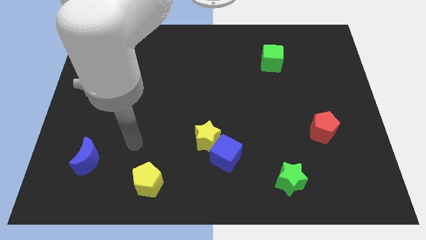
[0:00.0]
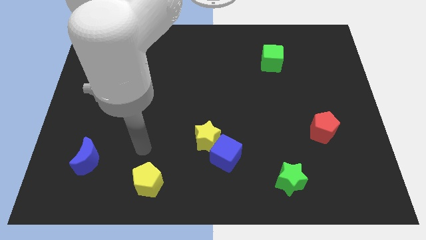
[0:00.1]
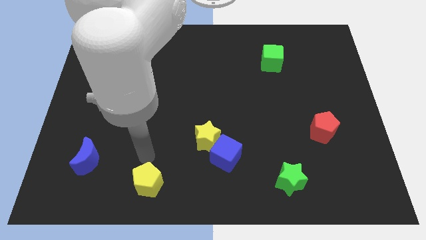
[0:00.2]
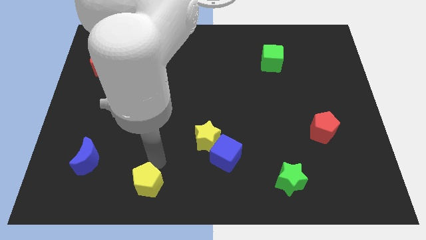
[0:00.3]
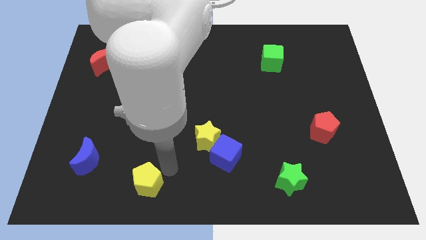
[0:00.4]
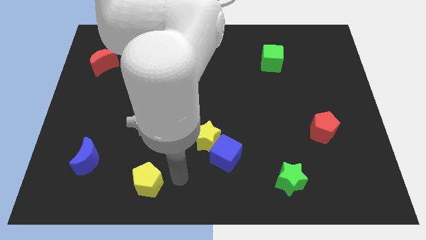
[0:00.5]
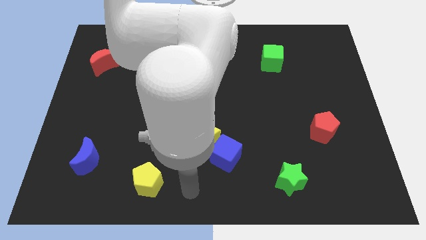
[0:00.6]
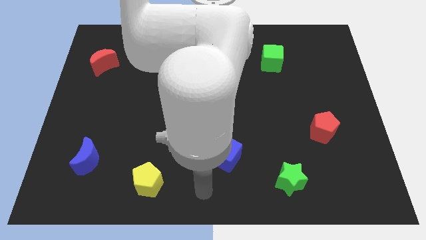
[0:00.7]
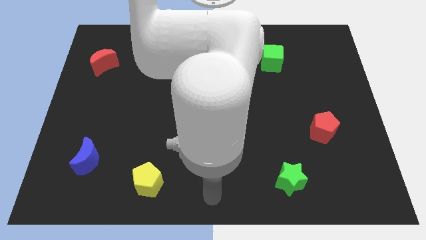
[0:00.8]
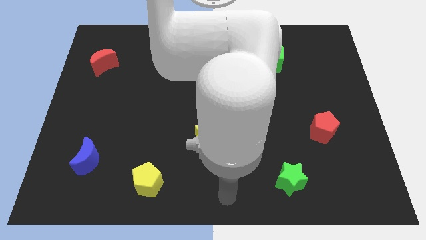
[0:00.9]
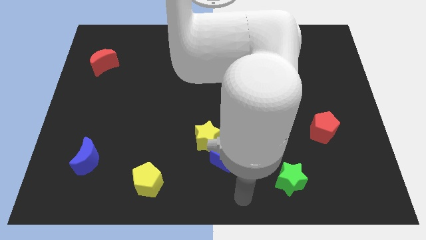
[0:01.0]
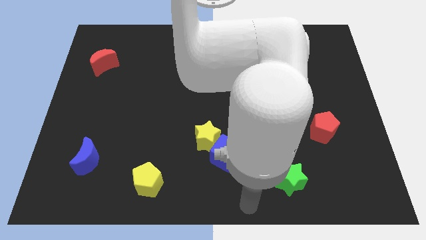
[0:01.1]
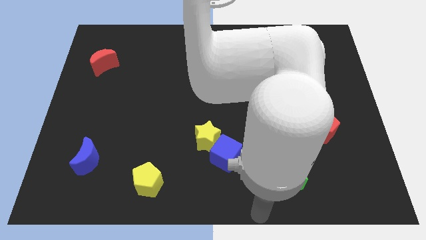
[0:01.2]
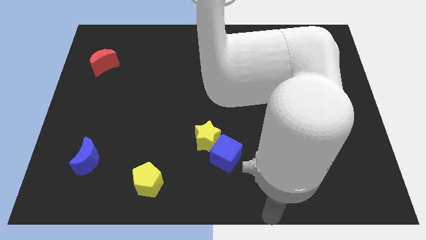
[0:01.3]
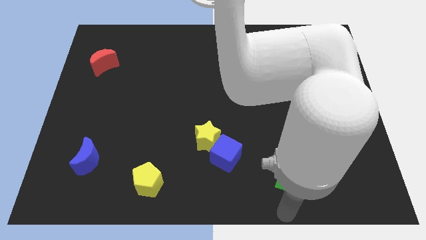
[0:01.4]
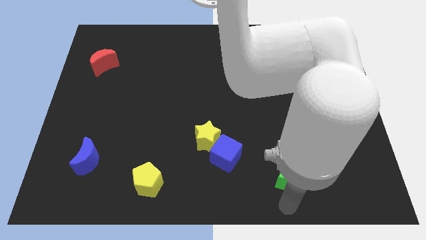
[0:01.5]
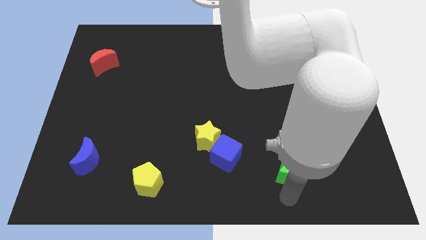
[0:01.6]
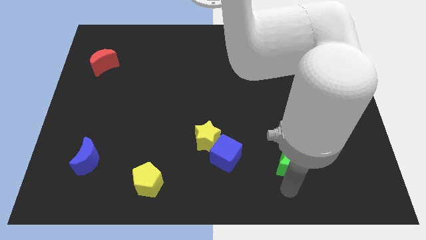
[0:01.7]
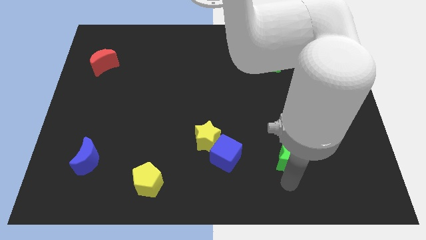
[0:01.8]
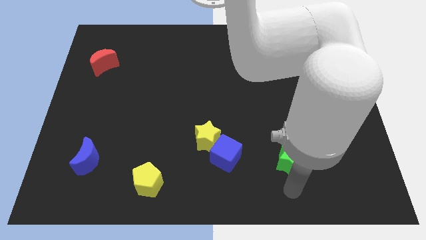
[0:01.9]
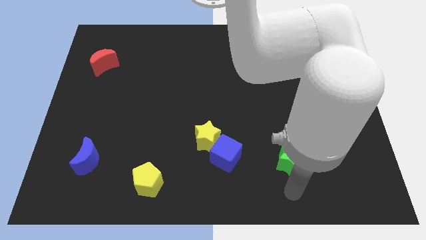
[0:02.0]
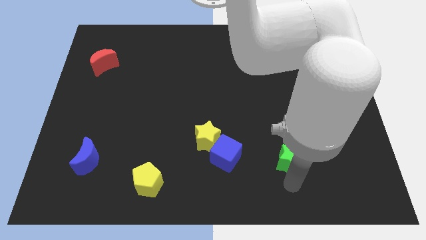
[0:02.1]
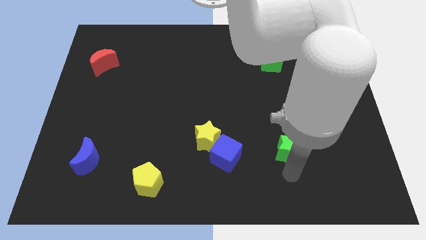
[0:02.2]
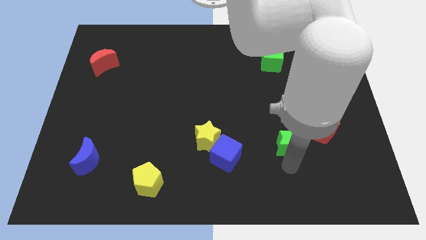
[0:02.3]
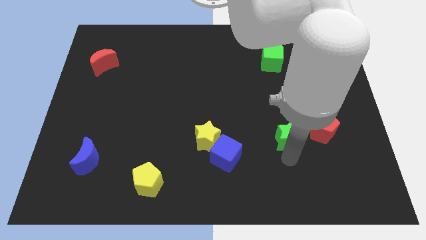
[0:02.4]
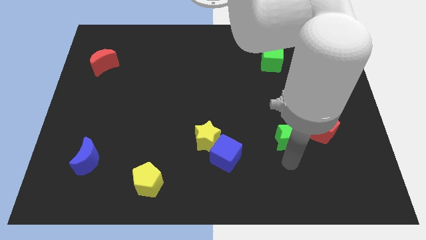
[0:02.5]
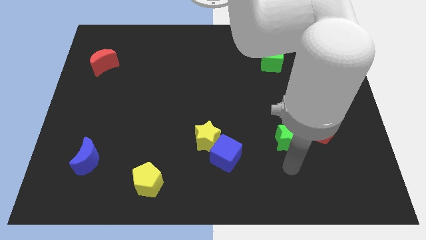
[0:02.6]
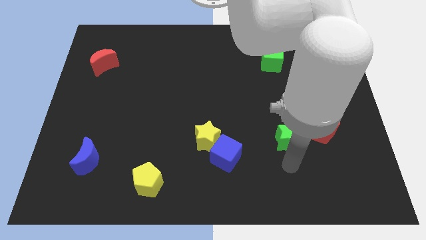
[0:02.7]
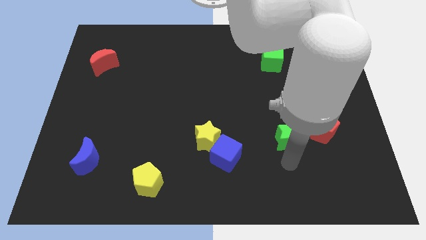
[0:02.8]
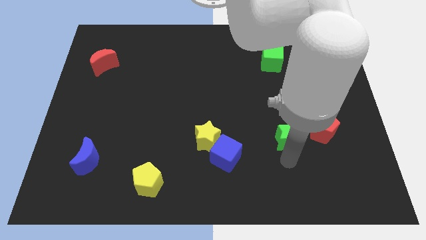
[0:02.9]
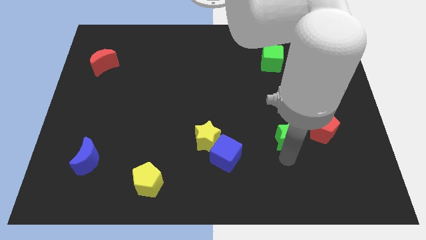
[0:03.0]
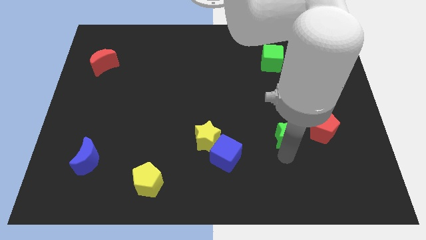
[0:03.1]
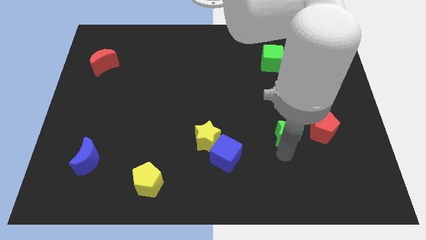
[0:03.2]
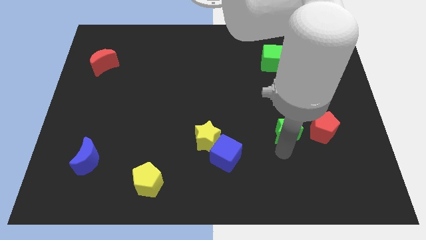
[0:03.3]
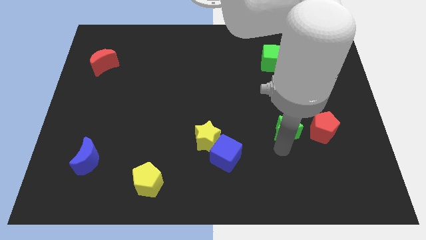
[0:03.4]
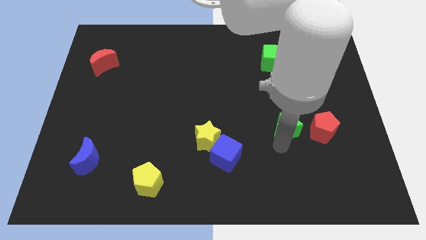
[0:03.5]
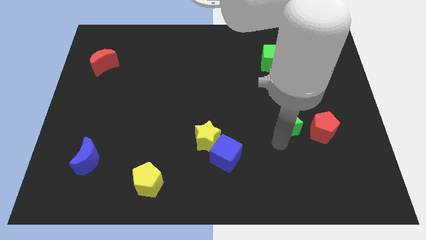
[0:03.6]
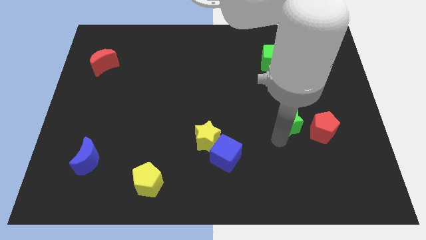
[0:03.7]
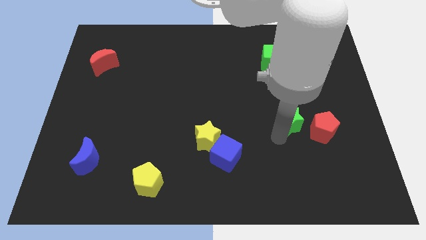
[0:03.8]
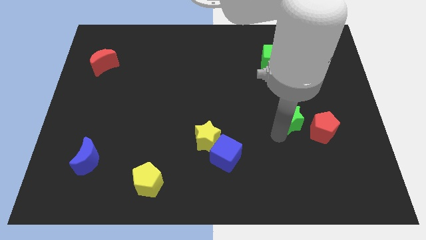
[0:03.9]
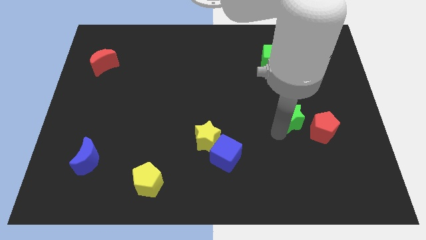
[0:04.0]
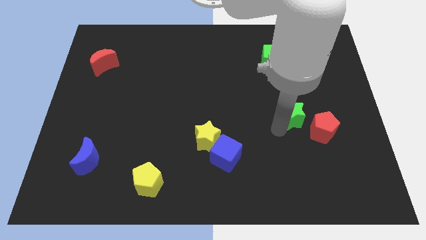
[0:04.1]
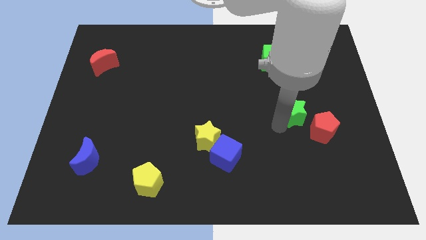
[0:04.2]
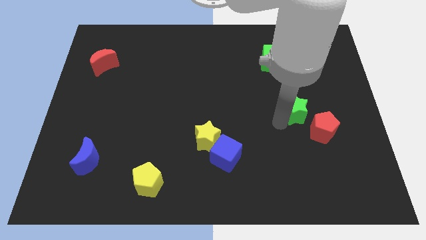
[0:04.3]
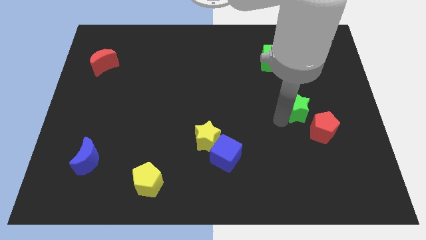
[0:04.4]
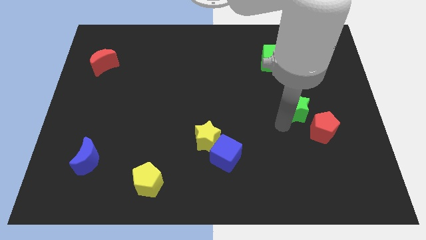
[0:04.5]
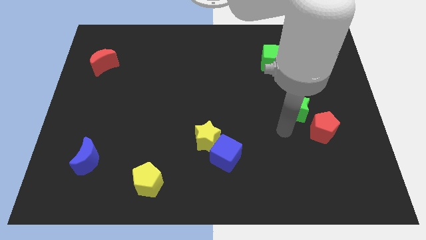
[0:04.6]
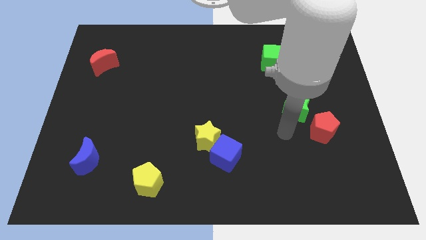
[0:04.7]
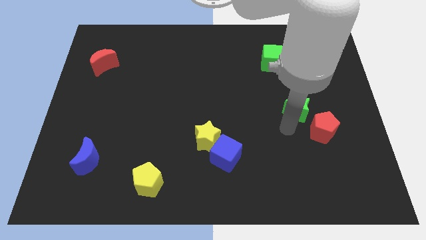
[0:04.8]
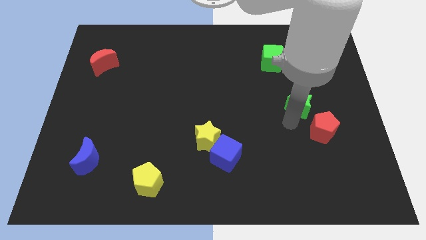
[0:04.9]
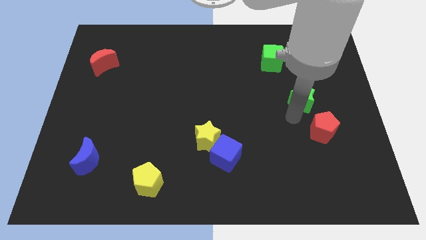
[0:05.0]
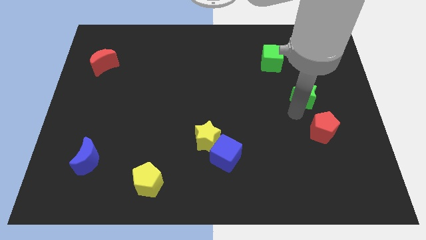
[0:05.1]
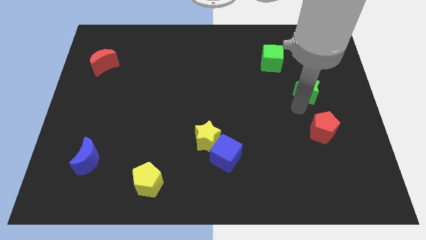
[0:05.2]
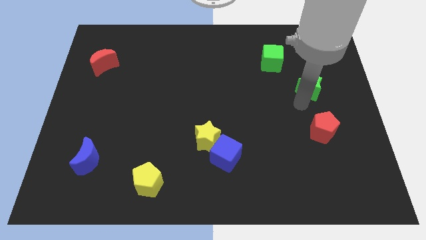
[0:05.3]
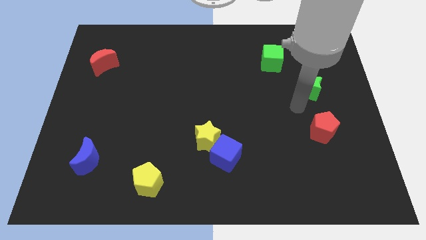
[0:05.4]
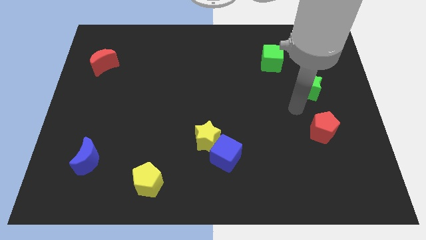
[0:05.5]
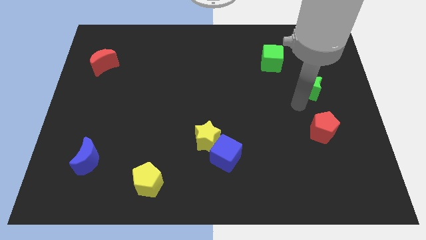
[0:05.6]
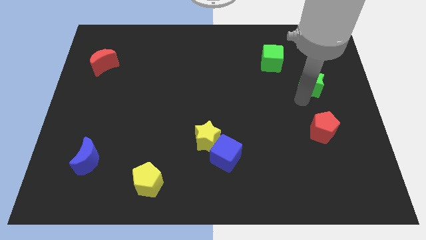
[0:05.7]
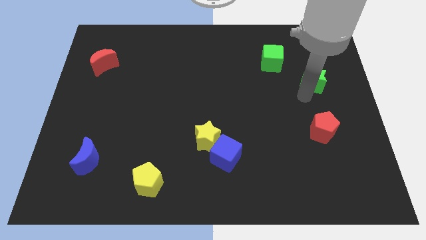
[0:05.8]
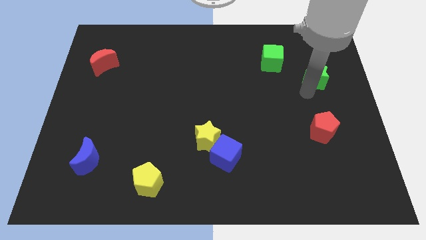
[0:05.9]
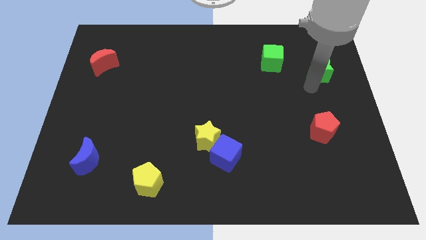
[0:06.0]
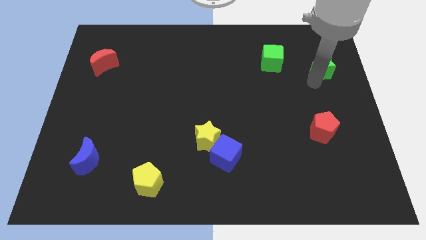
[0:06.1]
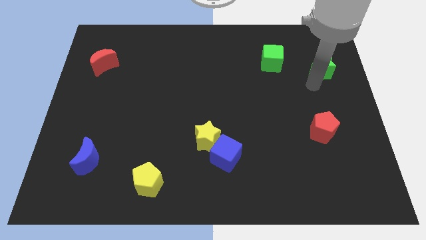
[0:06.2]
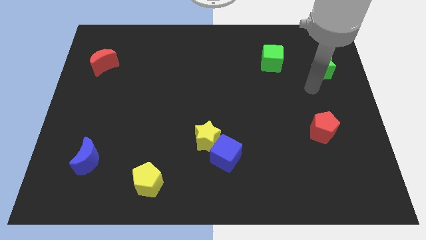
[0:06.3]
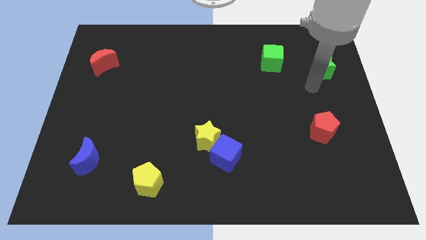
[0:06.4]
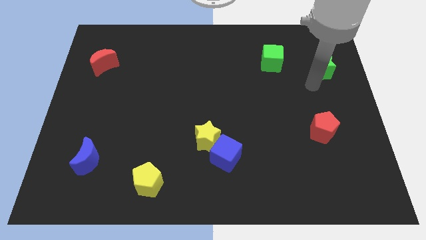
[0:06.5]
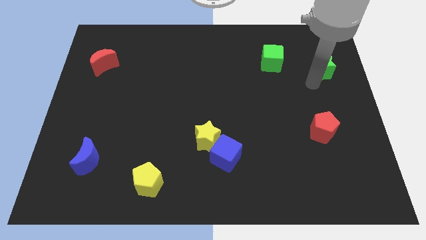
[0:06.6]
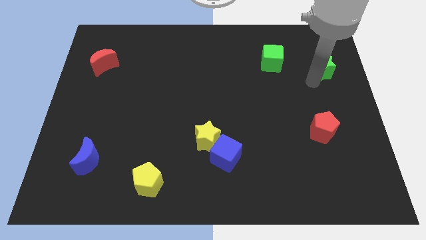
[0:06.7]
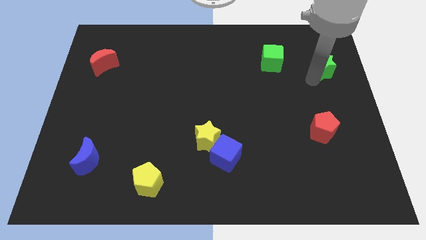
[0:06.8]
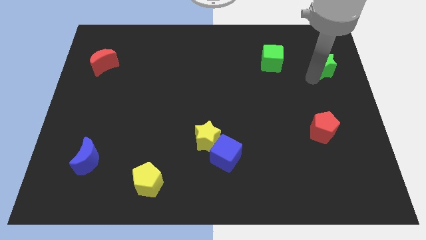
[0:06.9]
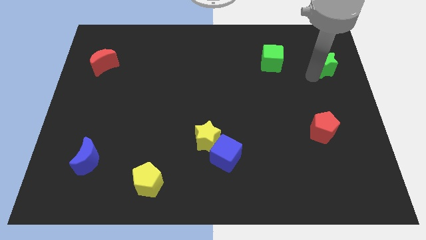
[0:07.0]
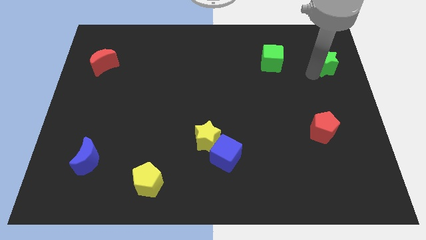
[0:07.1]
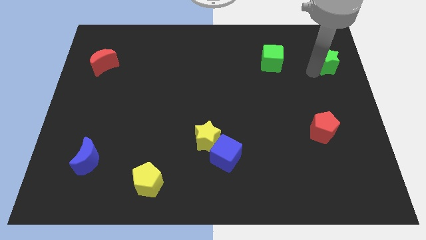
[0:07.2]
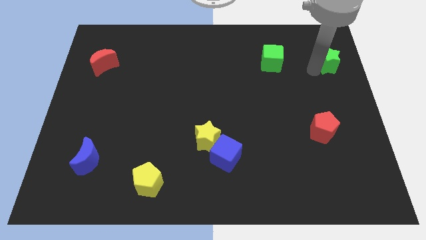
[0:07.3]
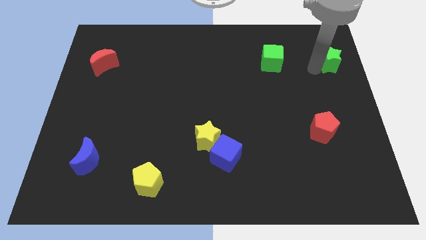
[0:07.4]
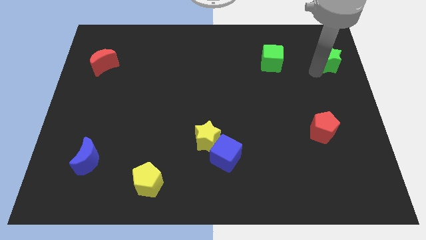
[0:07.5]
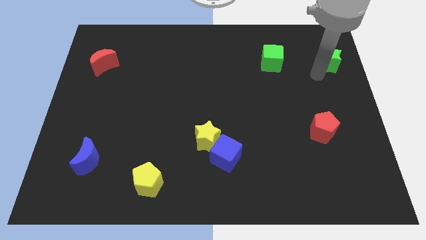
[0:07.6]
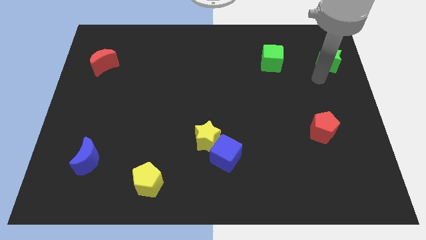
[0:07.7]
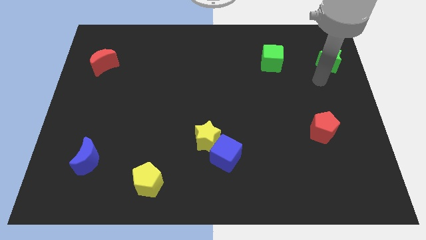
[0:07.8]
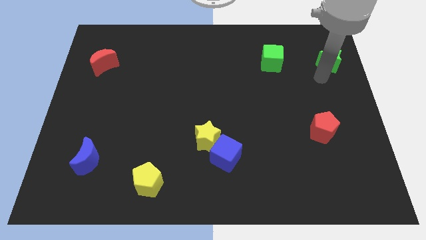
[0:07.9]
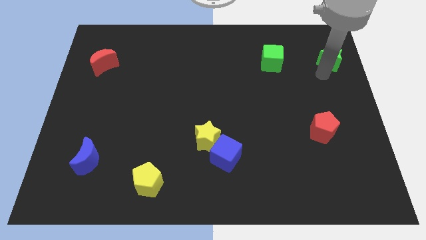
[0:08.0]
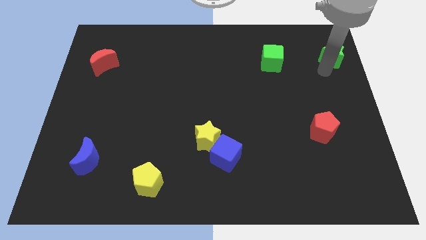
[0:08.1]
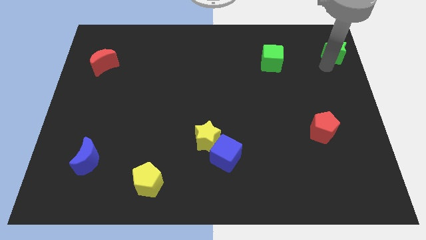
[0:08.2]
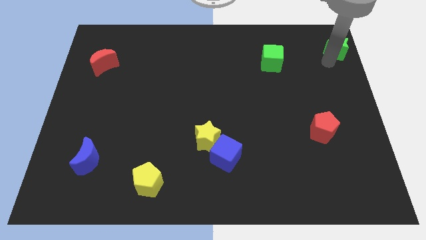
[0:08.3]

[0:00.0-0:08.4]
put the green star to the top right
